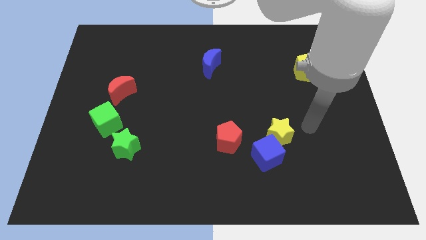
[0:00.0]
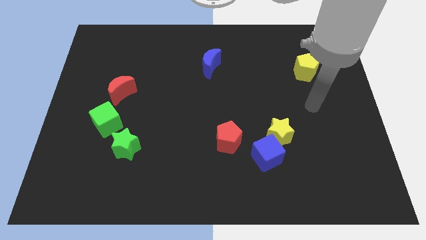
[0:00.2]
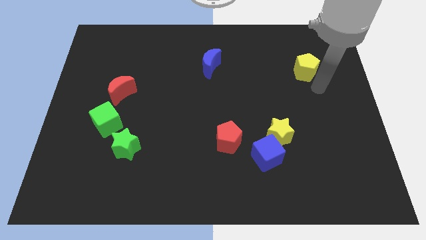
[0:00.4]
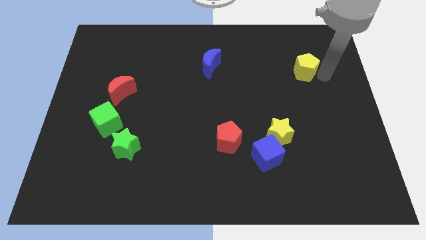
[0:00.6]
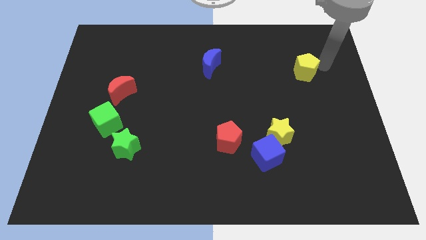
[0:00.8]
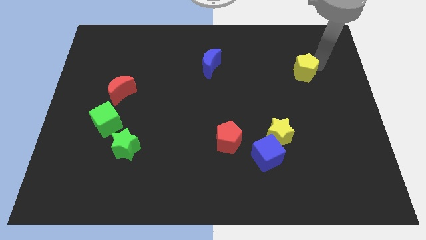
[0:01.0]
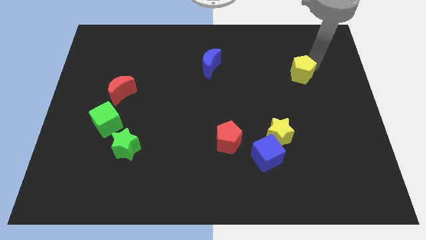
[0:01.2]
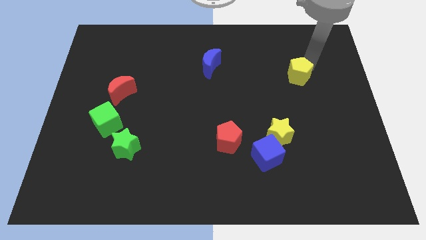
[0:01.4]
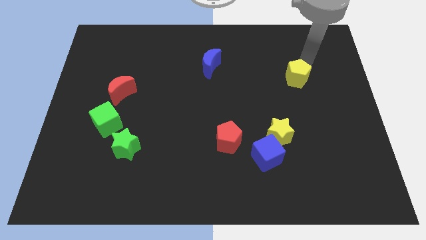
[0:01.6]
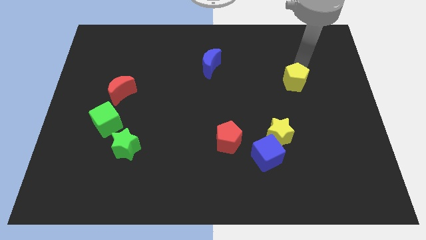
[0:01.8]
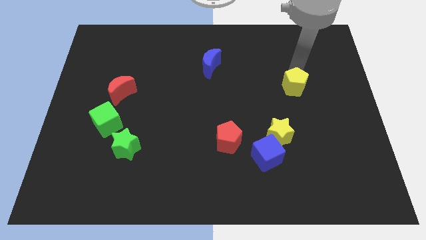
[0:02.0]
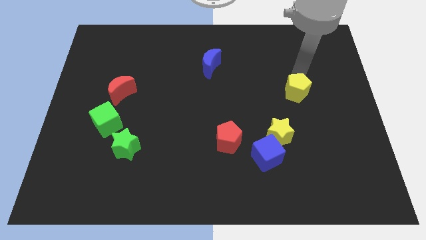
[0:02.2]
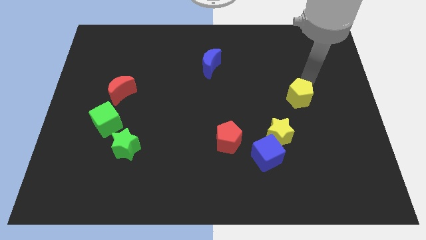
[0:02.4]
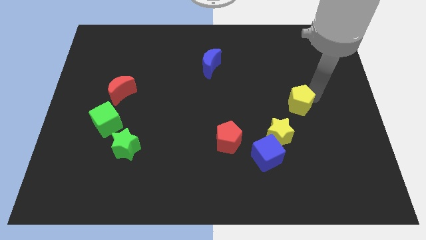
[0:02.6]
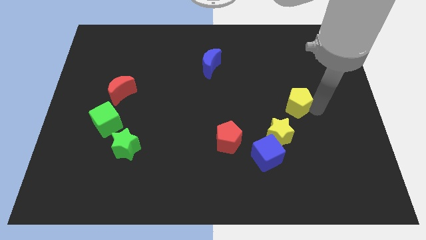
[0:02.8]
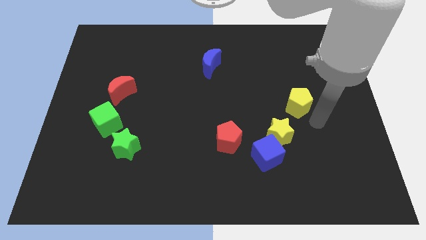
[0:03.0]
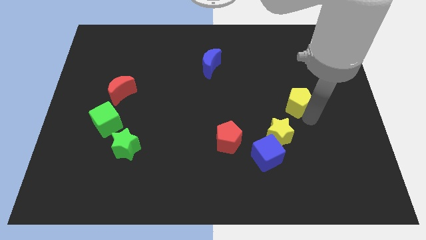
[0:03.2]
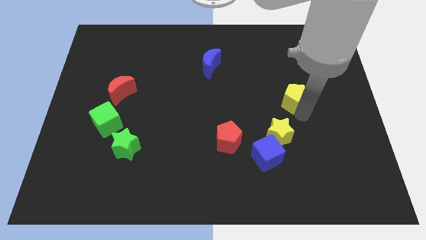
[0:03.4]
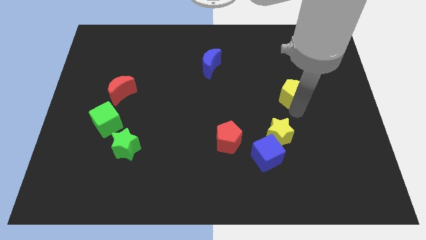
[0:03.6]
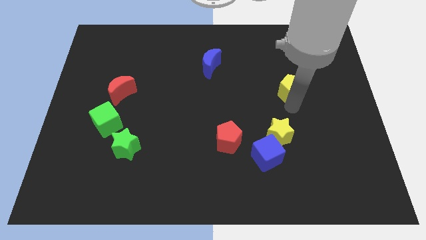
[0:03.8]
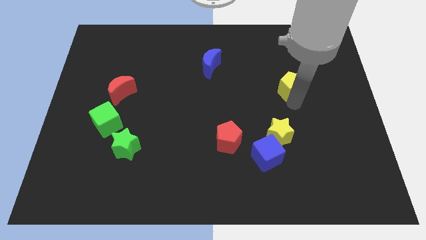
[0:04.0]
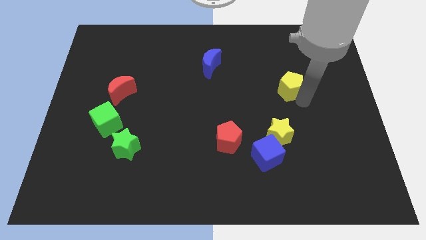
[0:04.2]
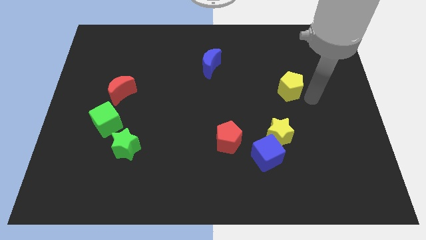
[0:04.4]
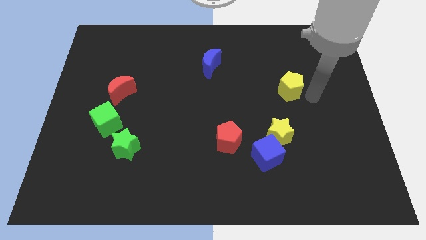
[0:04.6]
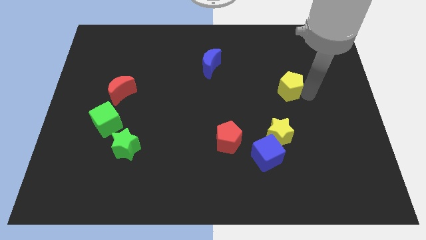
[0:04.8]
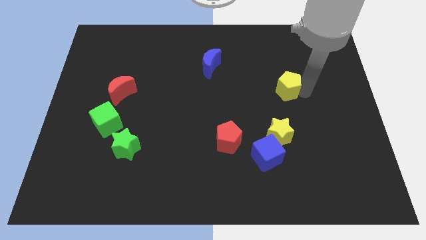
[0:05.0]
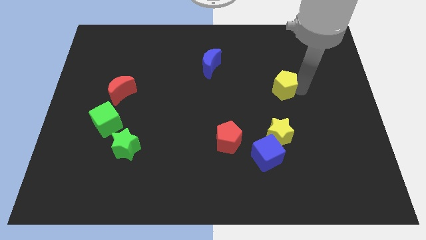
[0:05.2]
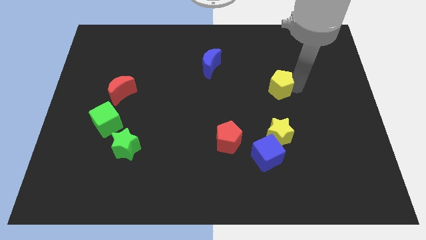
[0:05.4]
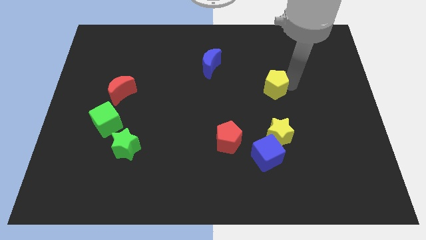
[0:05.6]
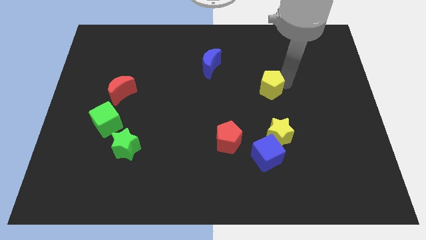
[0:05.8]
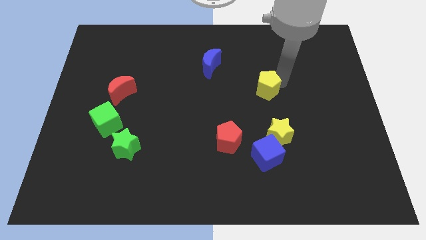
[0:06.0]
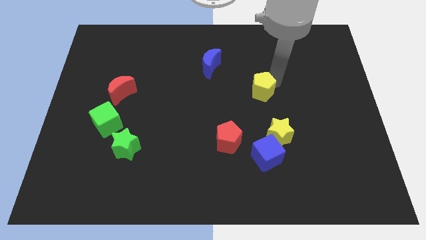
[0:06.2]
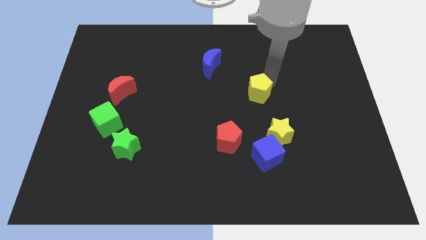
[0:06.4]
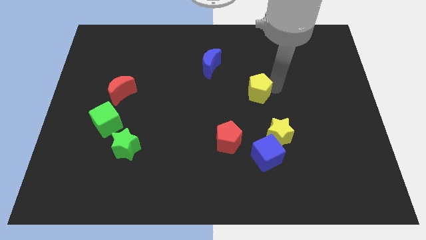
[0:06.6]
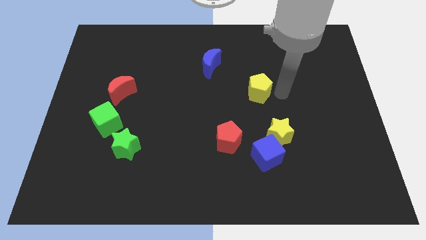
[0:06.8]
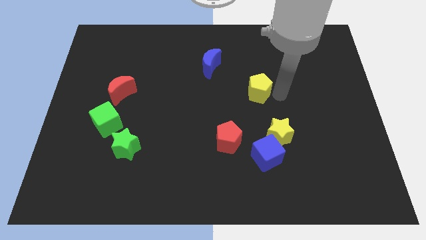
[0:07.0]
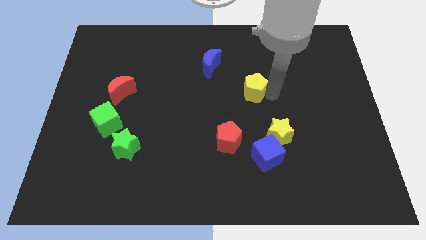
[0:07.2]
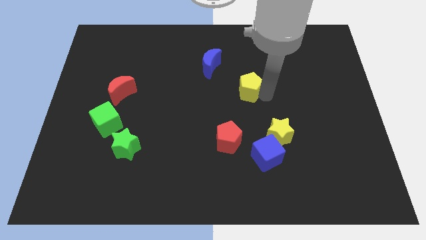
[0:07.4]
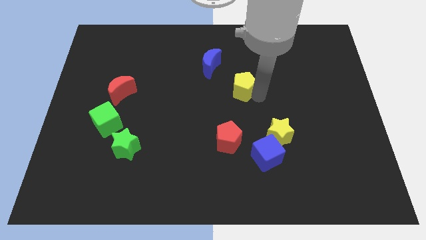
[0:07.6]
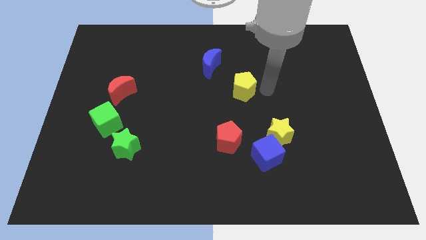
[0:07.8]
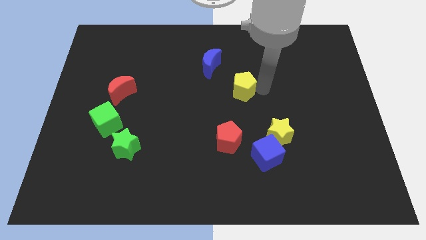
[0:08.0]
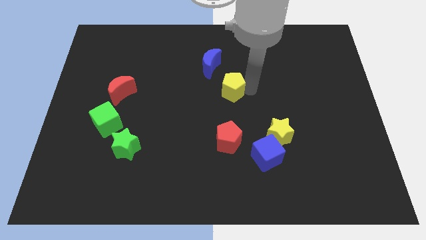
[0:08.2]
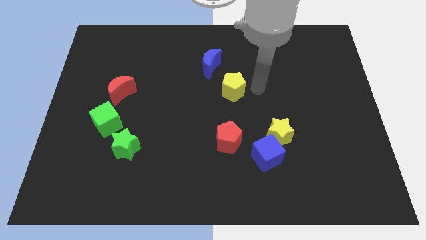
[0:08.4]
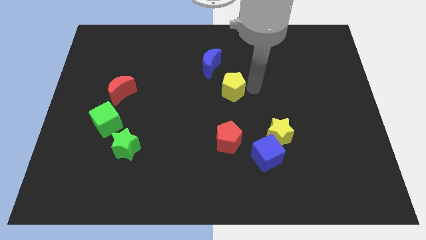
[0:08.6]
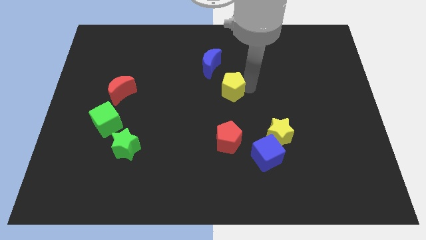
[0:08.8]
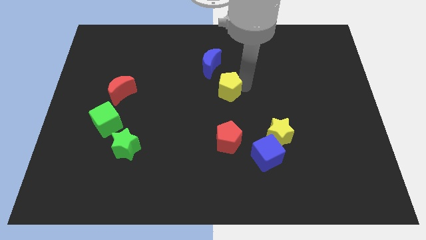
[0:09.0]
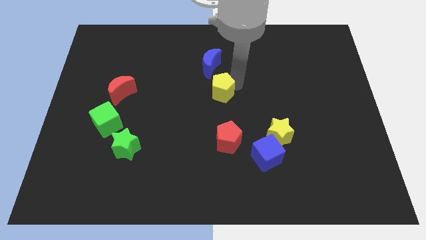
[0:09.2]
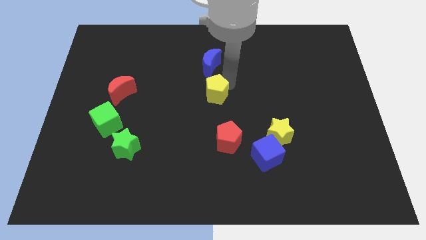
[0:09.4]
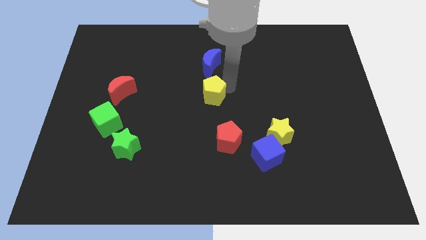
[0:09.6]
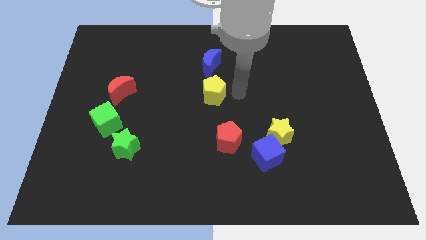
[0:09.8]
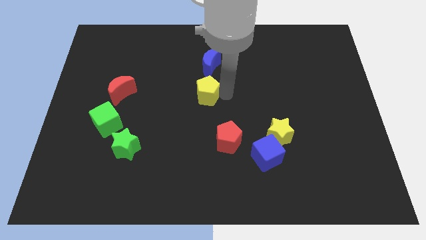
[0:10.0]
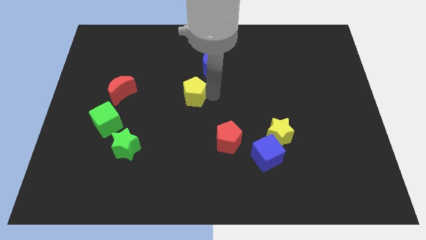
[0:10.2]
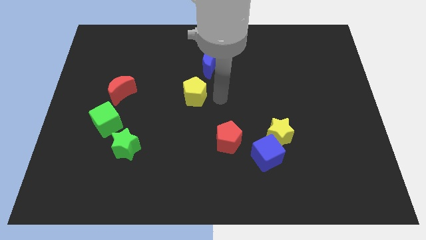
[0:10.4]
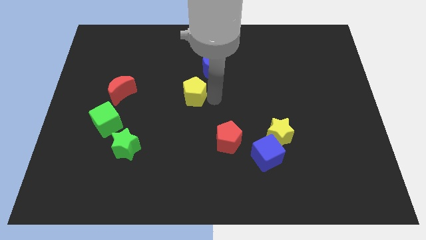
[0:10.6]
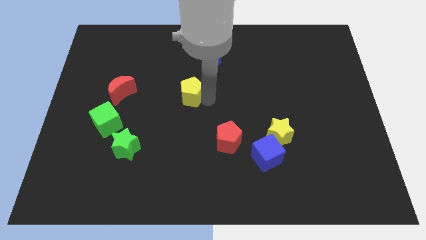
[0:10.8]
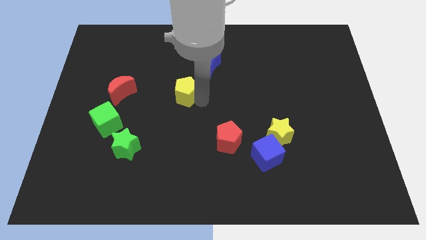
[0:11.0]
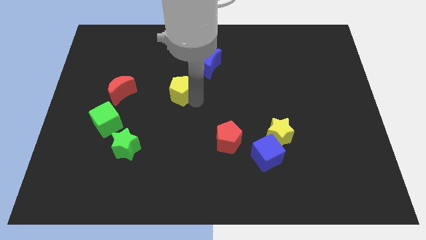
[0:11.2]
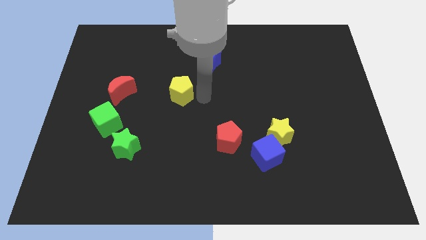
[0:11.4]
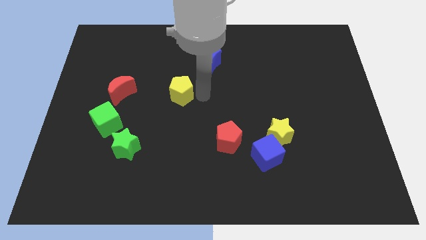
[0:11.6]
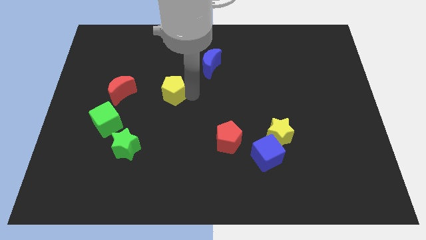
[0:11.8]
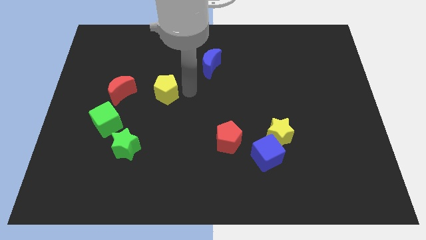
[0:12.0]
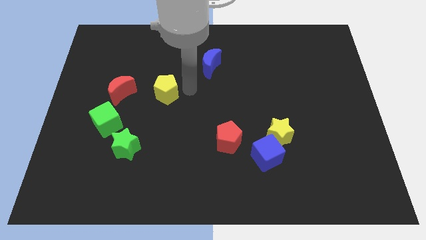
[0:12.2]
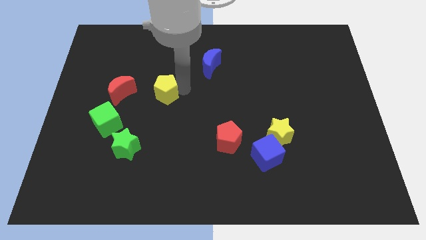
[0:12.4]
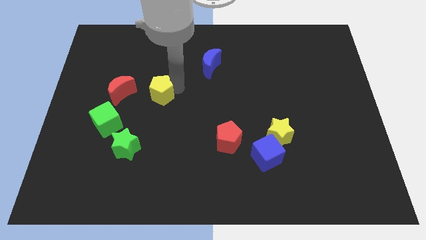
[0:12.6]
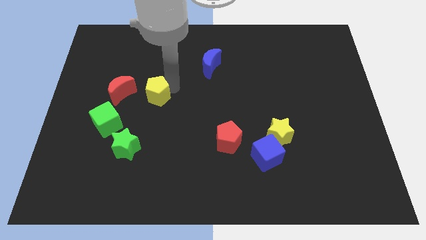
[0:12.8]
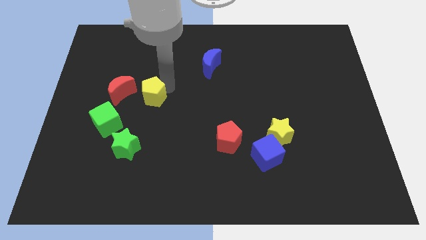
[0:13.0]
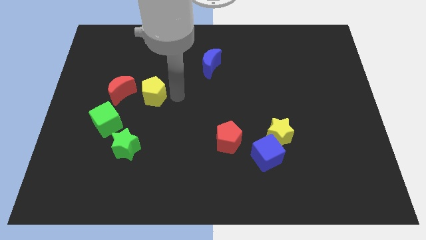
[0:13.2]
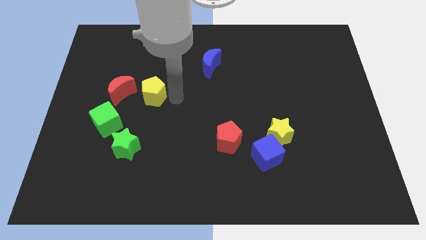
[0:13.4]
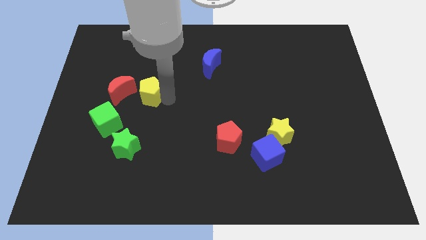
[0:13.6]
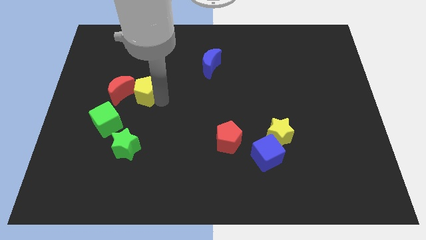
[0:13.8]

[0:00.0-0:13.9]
move the yellow pentagon close to the red moon
